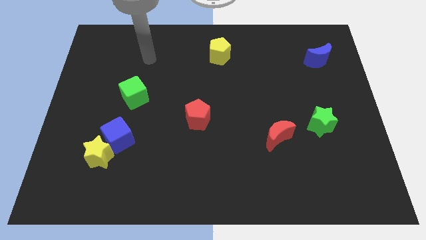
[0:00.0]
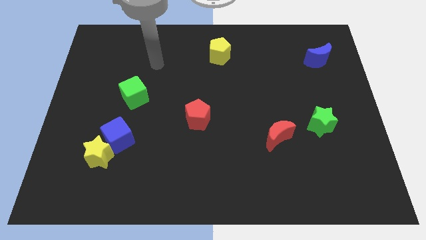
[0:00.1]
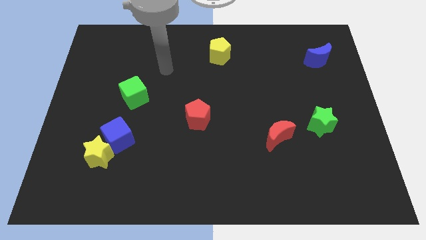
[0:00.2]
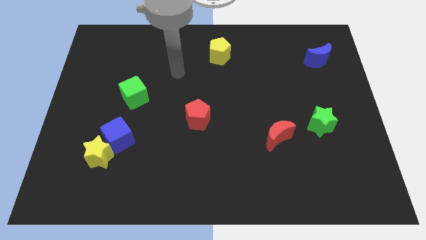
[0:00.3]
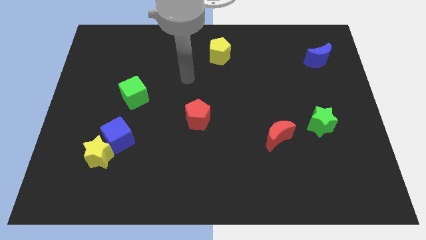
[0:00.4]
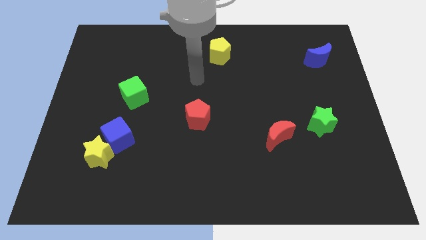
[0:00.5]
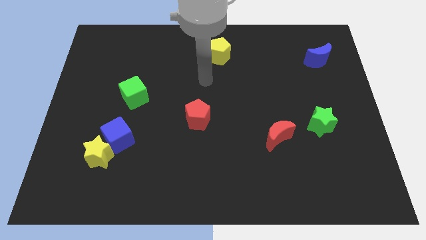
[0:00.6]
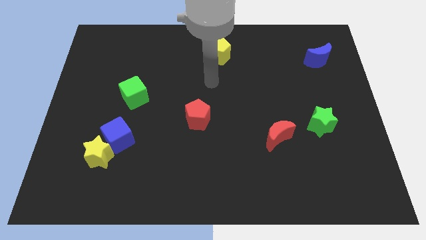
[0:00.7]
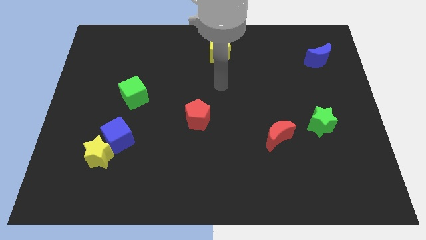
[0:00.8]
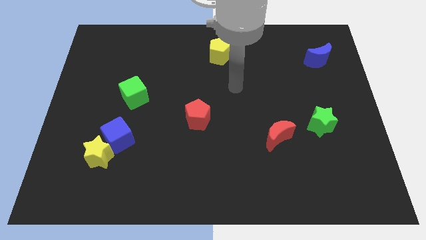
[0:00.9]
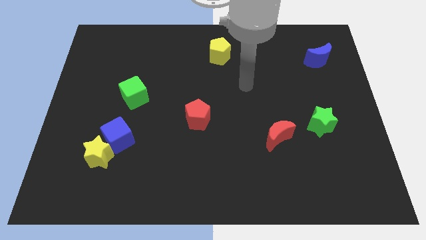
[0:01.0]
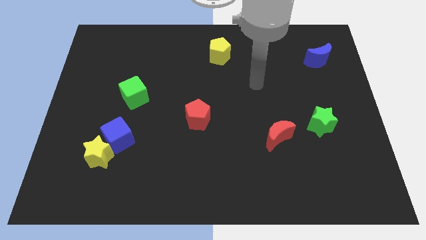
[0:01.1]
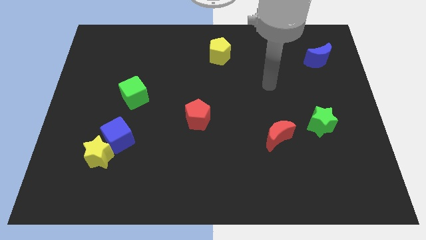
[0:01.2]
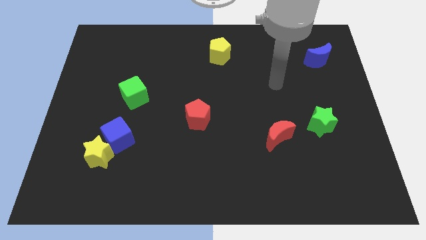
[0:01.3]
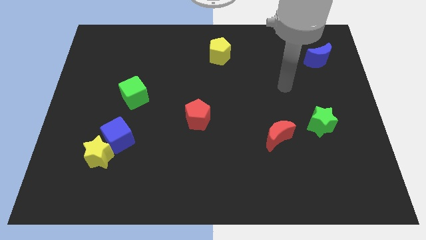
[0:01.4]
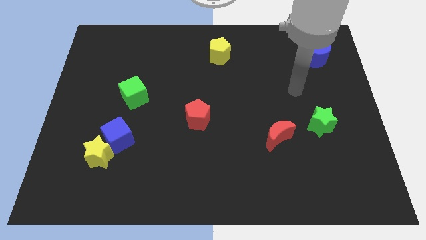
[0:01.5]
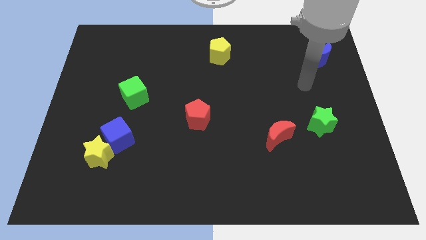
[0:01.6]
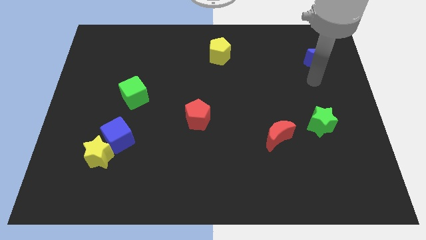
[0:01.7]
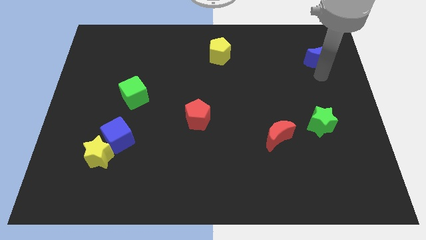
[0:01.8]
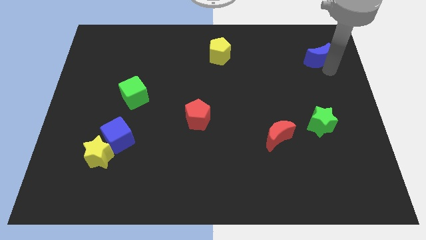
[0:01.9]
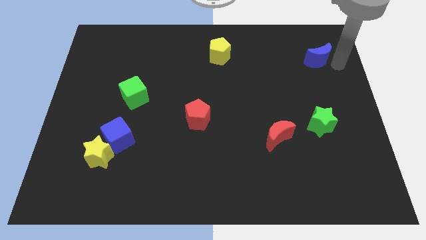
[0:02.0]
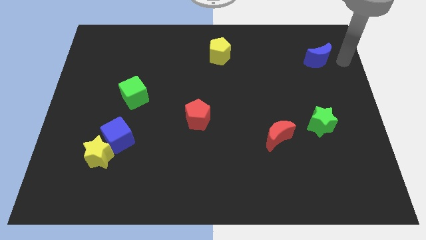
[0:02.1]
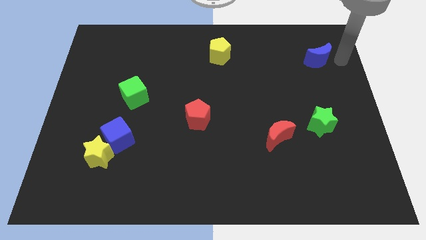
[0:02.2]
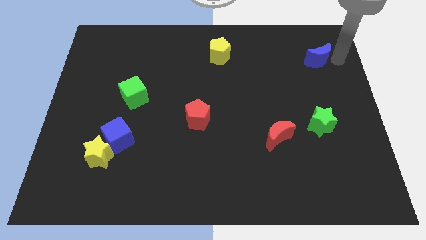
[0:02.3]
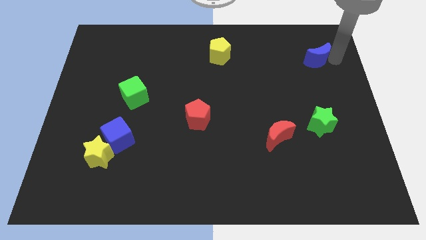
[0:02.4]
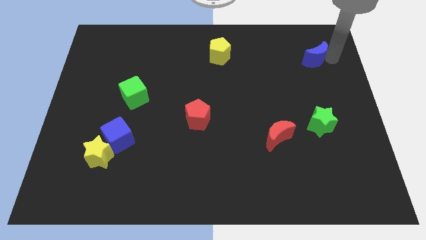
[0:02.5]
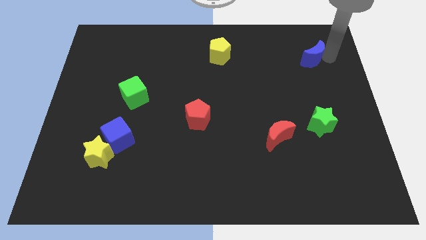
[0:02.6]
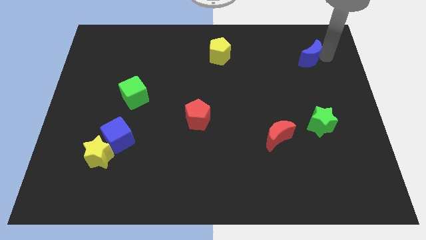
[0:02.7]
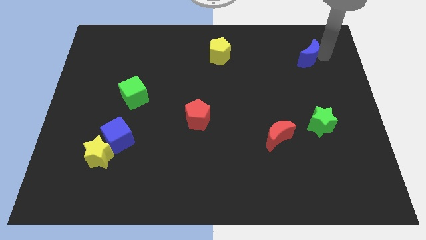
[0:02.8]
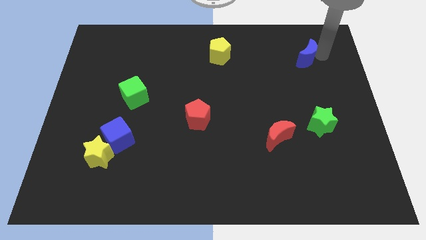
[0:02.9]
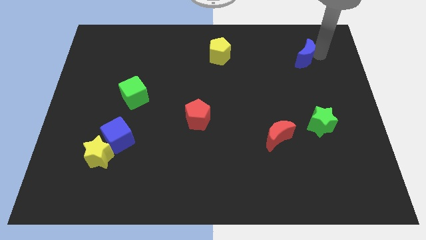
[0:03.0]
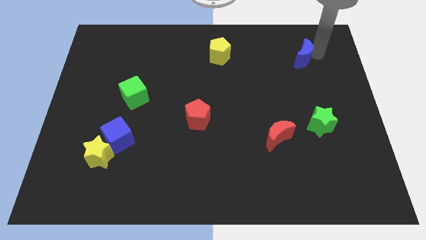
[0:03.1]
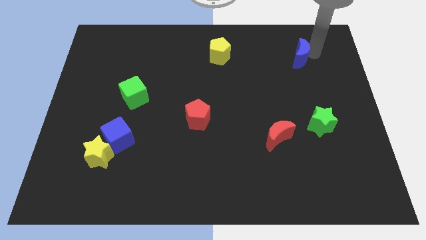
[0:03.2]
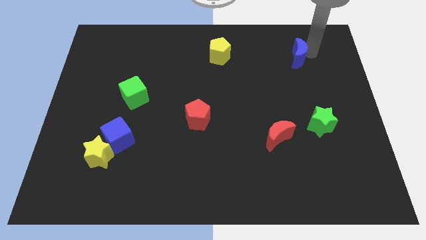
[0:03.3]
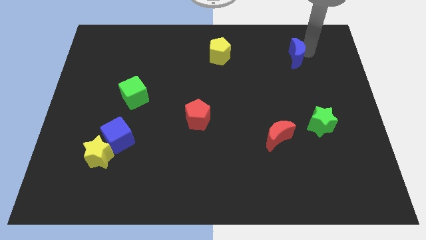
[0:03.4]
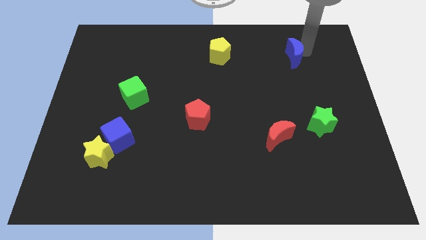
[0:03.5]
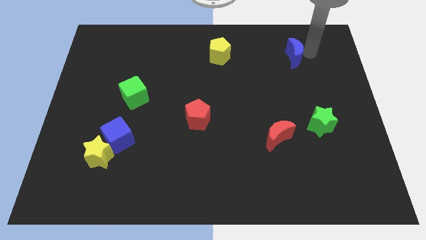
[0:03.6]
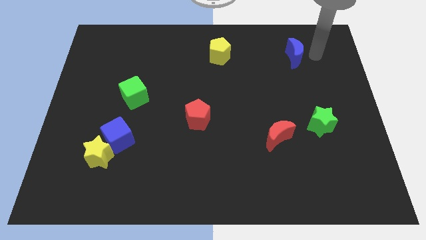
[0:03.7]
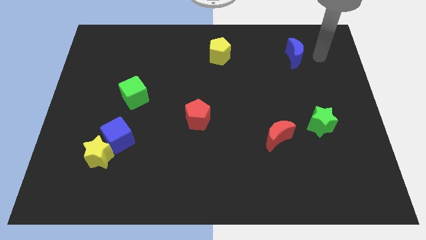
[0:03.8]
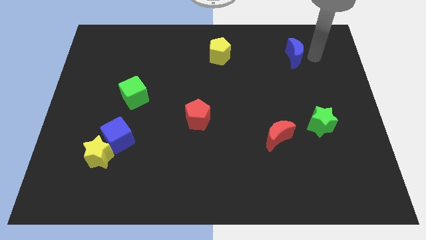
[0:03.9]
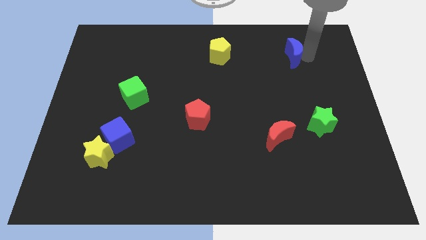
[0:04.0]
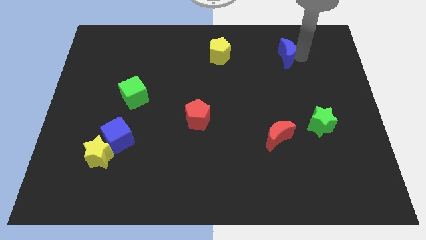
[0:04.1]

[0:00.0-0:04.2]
slide the blue moon left somewhat

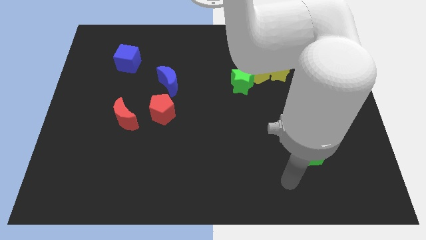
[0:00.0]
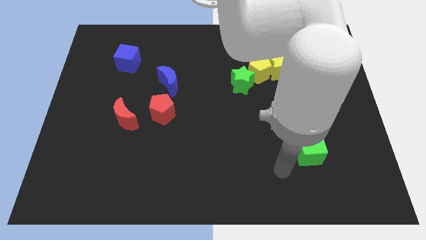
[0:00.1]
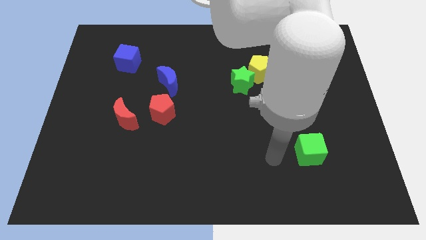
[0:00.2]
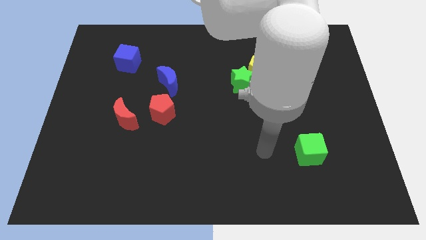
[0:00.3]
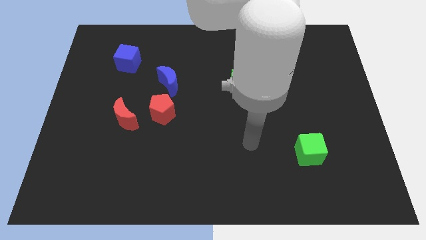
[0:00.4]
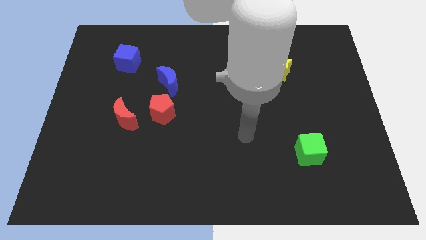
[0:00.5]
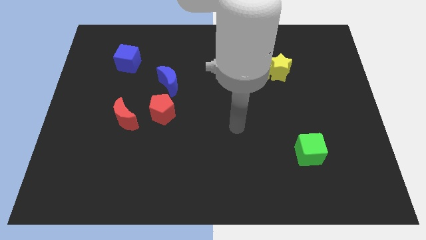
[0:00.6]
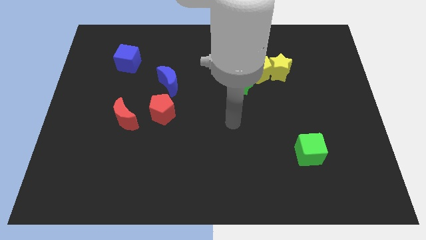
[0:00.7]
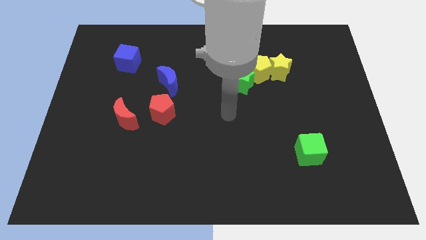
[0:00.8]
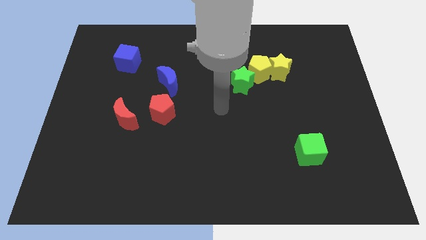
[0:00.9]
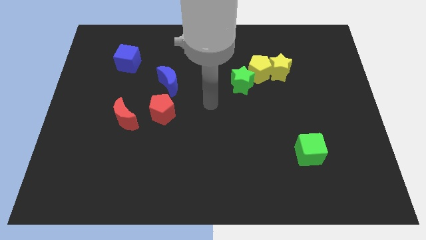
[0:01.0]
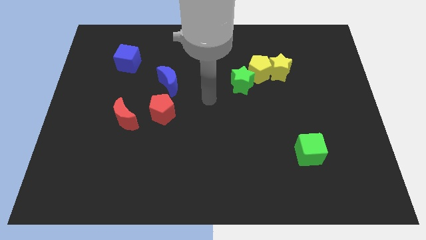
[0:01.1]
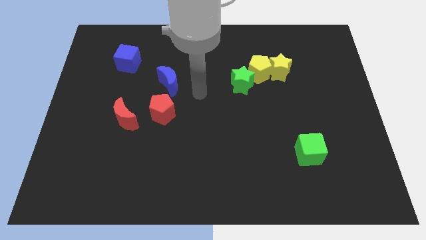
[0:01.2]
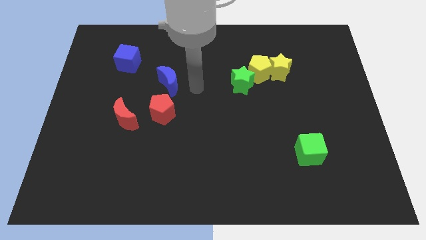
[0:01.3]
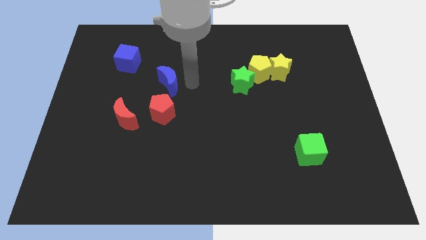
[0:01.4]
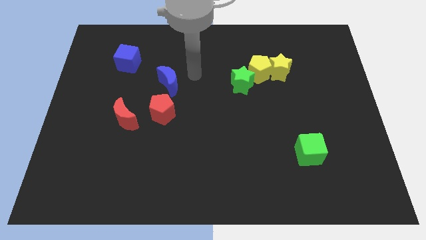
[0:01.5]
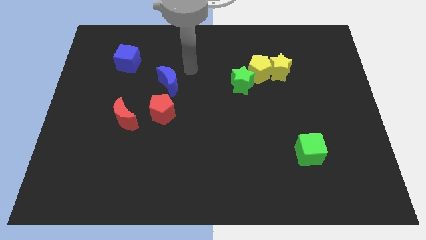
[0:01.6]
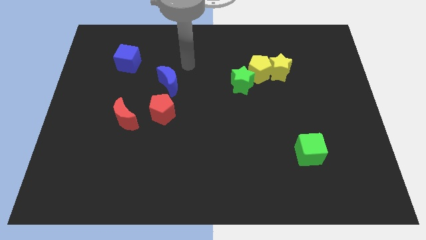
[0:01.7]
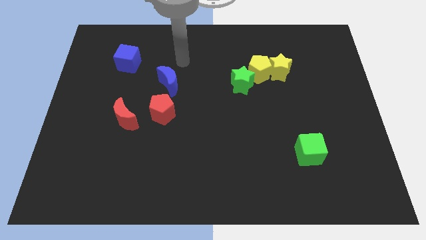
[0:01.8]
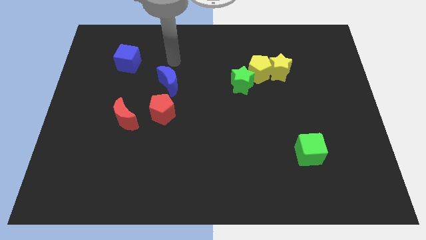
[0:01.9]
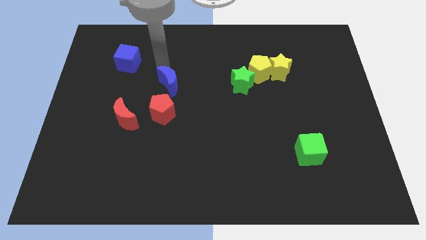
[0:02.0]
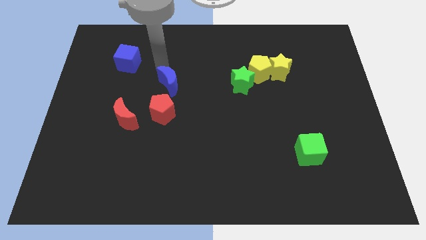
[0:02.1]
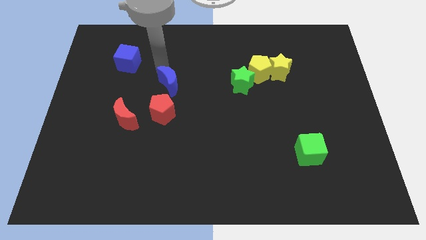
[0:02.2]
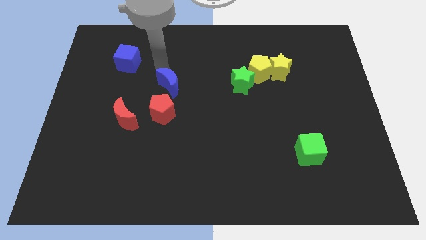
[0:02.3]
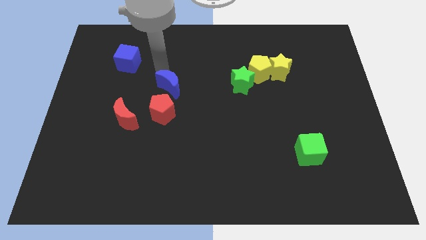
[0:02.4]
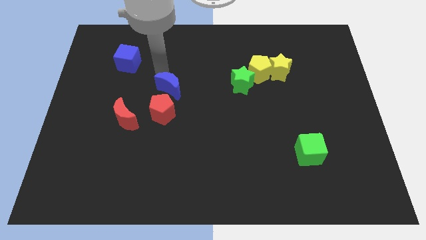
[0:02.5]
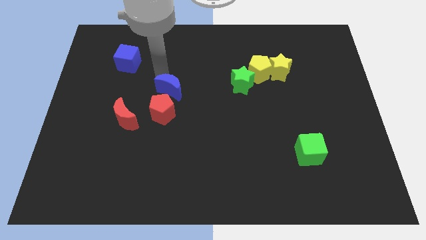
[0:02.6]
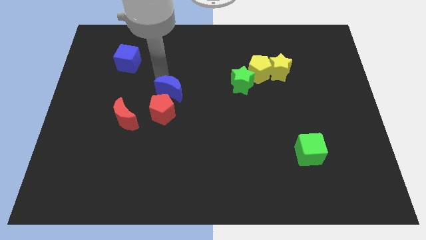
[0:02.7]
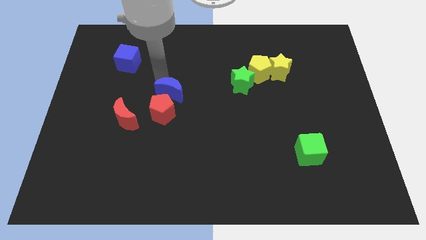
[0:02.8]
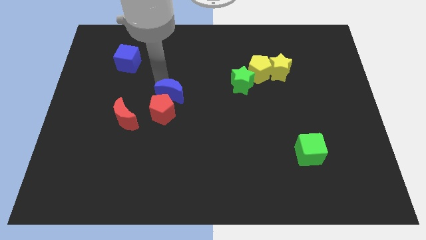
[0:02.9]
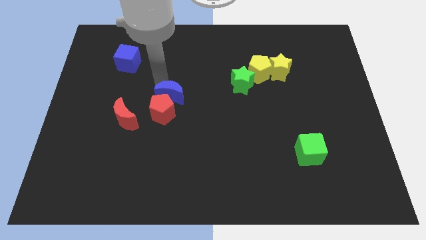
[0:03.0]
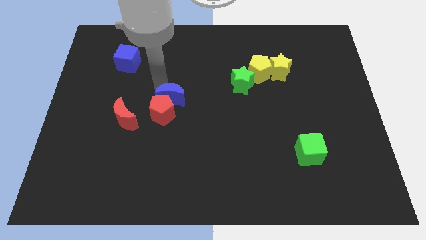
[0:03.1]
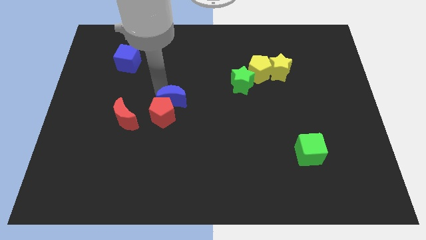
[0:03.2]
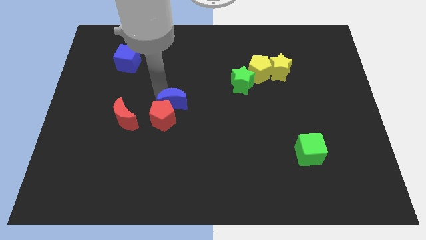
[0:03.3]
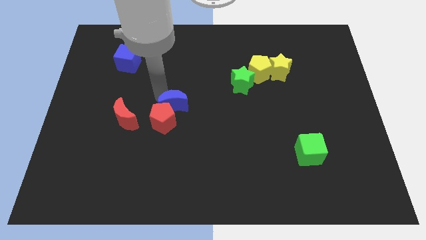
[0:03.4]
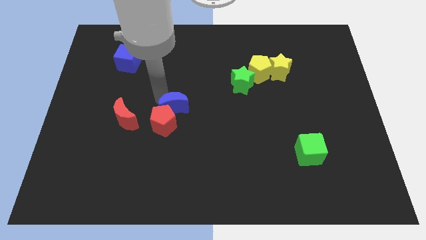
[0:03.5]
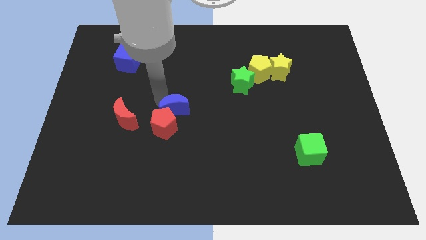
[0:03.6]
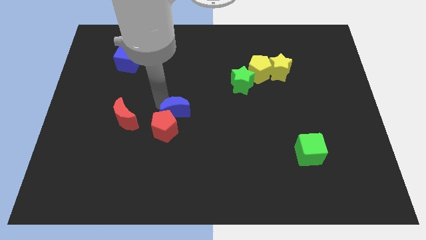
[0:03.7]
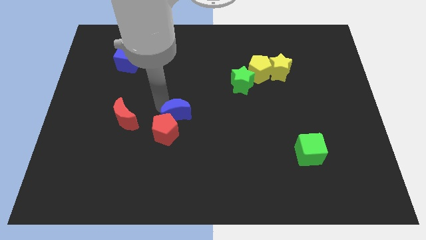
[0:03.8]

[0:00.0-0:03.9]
slightly push the blue moon downwards and right diagonally

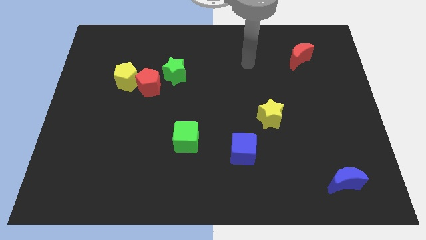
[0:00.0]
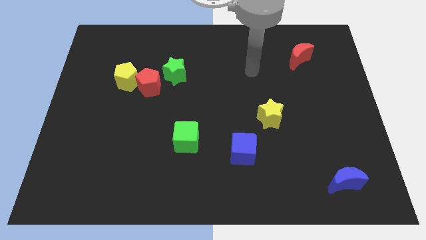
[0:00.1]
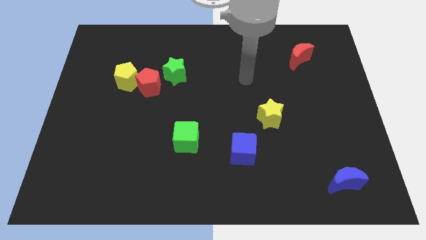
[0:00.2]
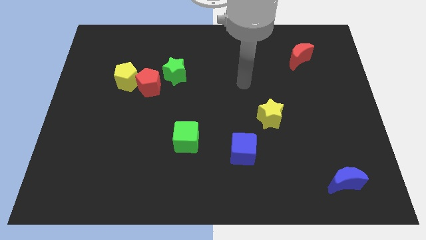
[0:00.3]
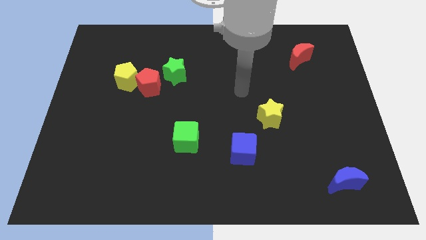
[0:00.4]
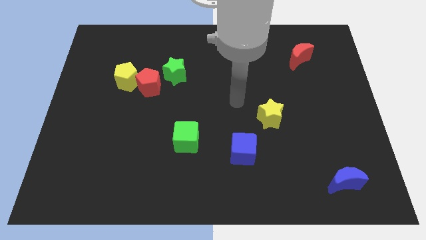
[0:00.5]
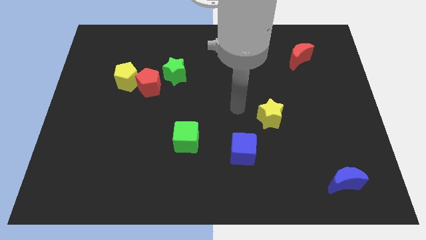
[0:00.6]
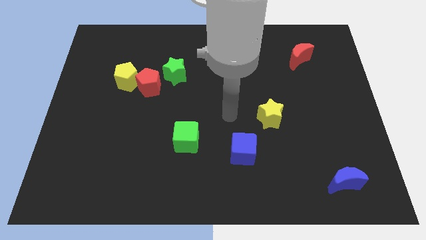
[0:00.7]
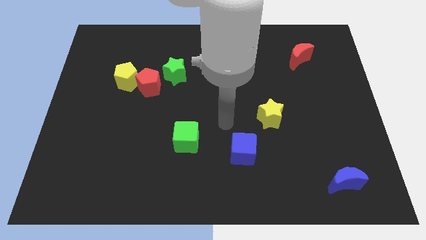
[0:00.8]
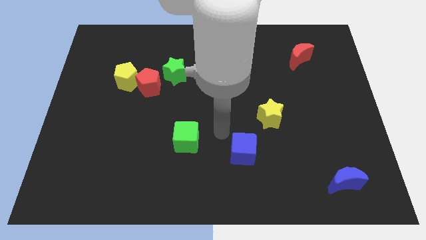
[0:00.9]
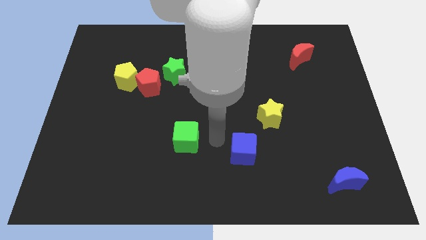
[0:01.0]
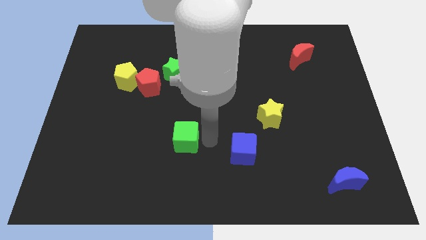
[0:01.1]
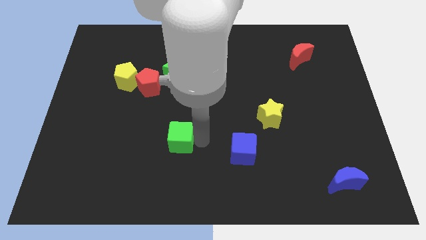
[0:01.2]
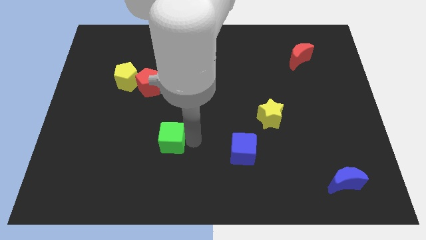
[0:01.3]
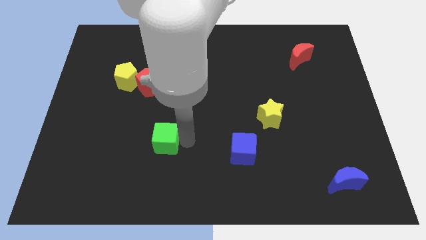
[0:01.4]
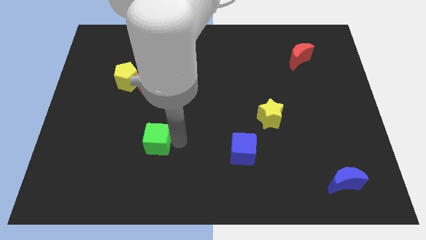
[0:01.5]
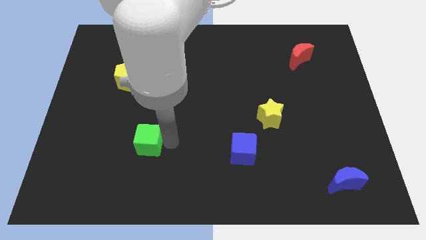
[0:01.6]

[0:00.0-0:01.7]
slightly slide the green cube left
